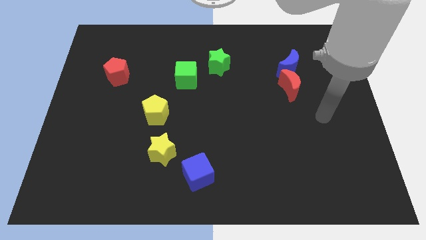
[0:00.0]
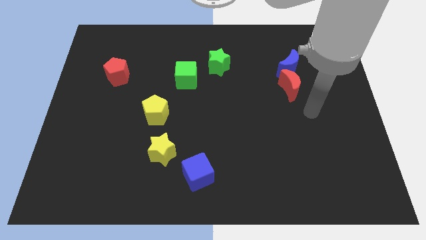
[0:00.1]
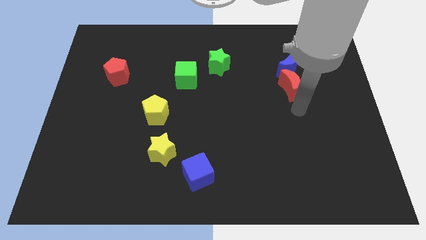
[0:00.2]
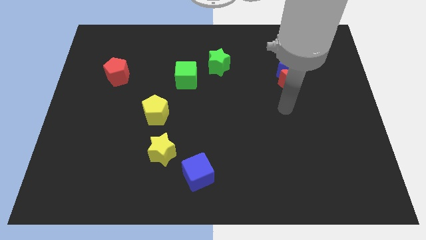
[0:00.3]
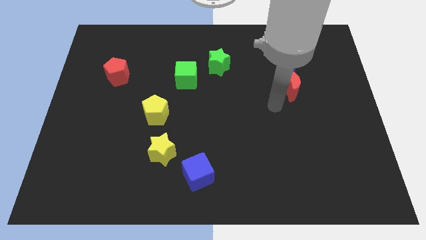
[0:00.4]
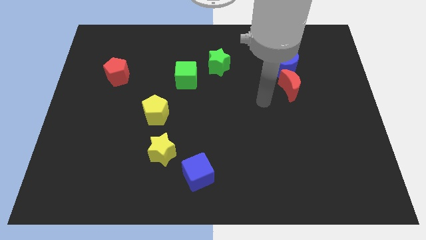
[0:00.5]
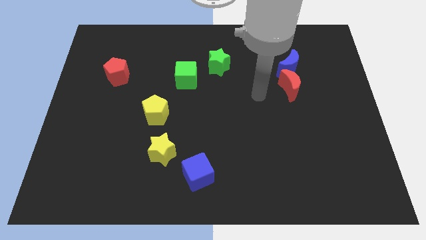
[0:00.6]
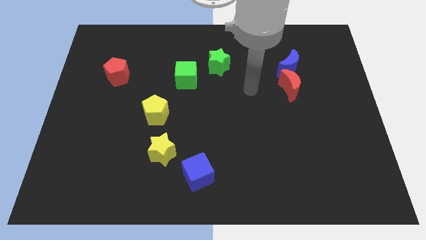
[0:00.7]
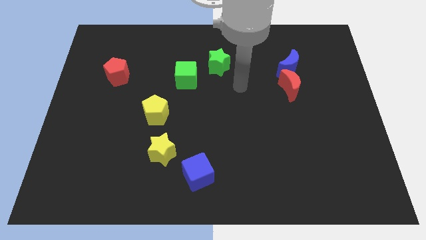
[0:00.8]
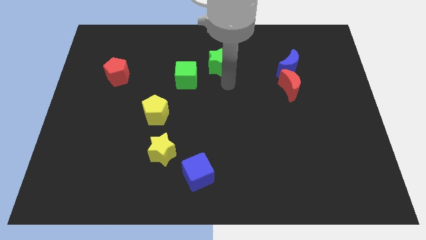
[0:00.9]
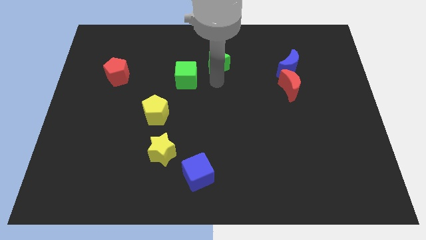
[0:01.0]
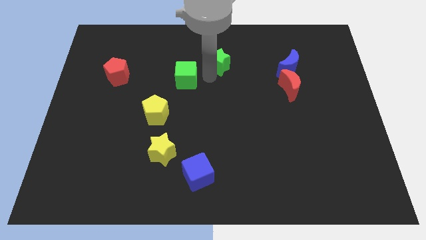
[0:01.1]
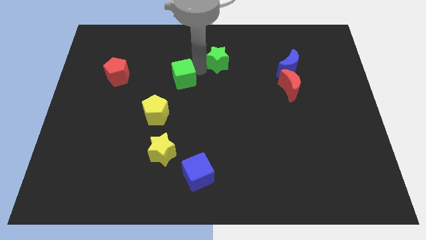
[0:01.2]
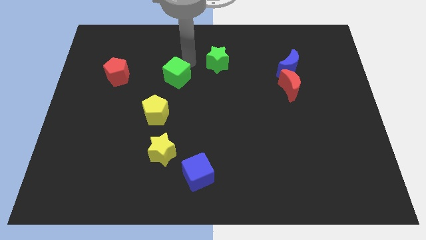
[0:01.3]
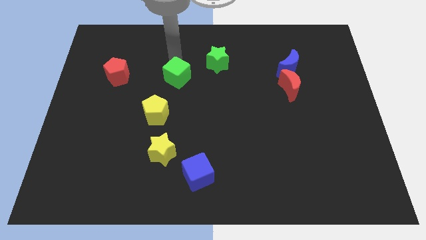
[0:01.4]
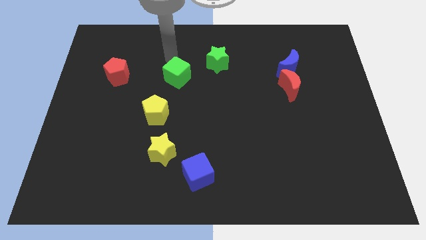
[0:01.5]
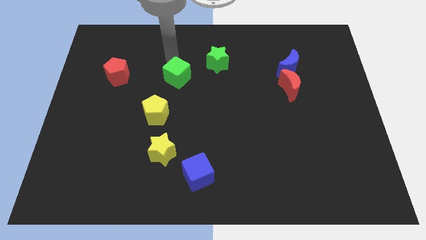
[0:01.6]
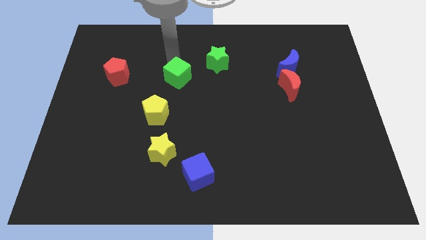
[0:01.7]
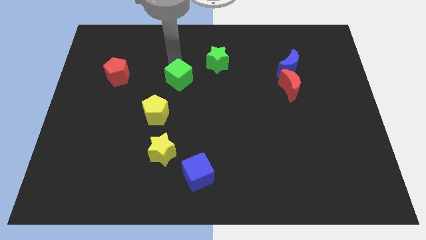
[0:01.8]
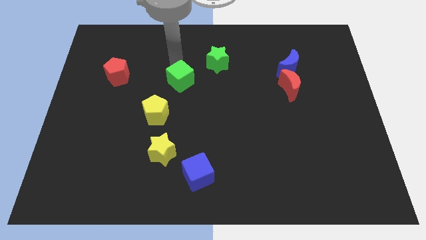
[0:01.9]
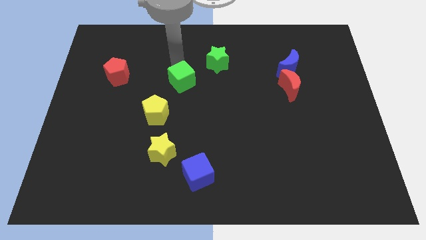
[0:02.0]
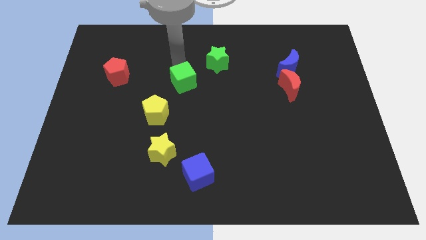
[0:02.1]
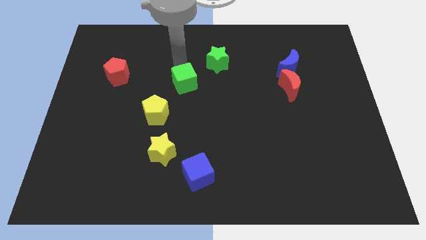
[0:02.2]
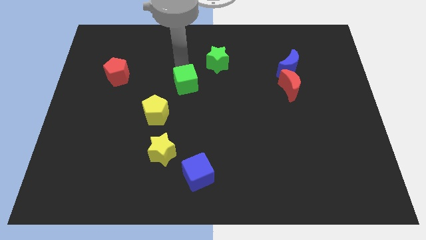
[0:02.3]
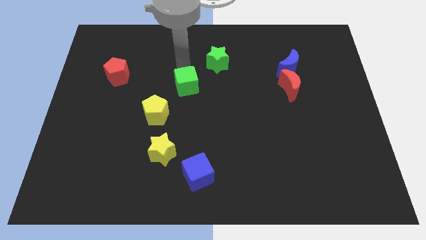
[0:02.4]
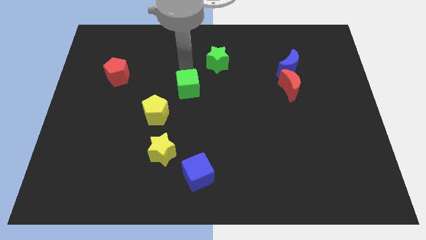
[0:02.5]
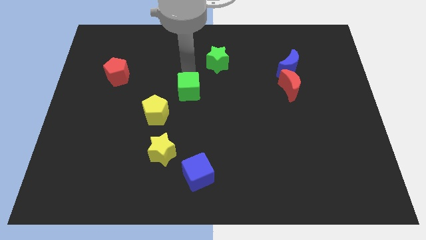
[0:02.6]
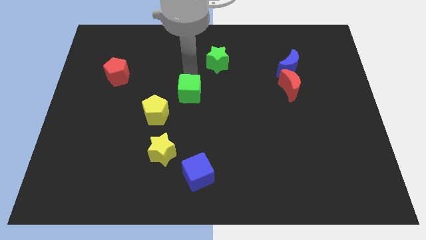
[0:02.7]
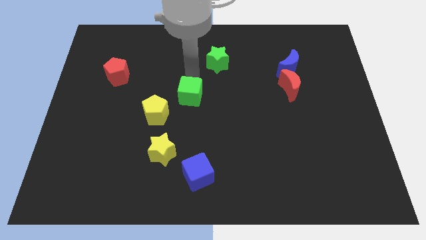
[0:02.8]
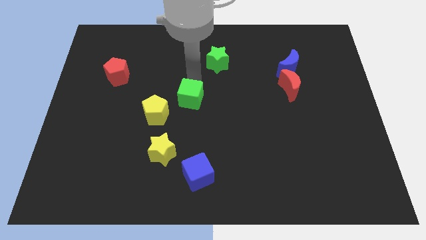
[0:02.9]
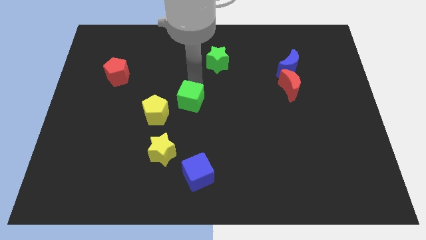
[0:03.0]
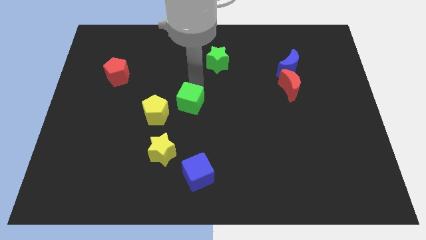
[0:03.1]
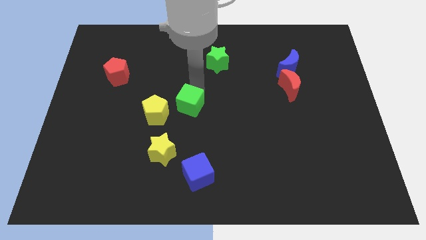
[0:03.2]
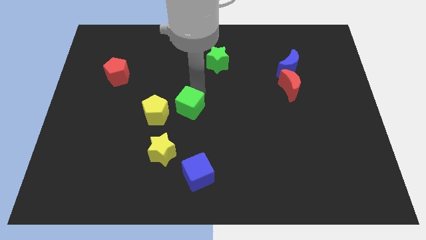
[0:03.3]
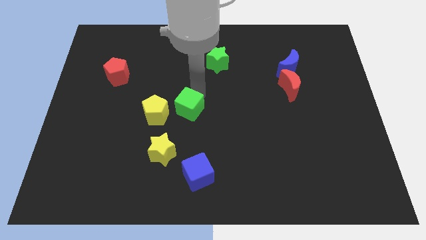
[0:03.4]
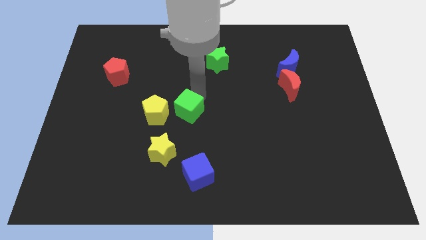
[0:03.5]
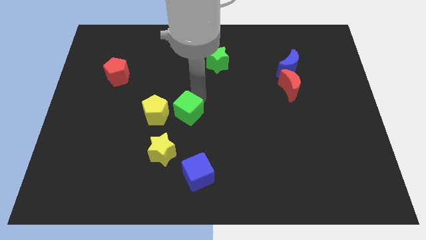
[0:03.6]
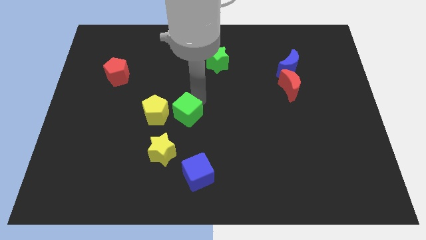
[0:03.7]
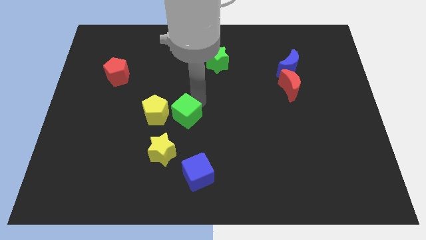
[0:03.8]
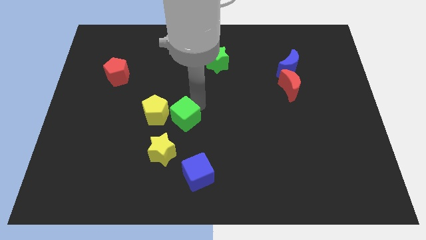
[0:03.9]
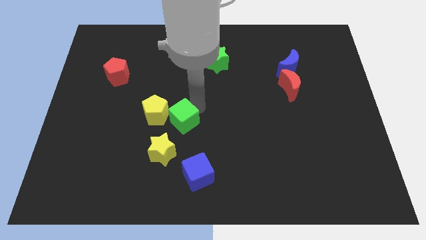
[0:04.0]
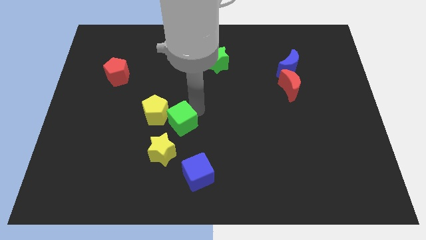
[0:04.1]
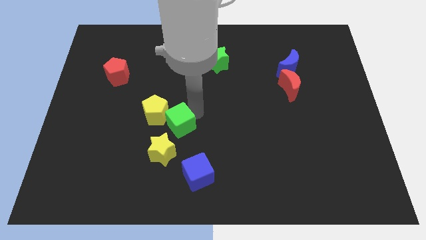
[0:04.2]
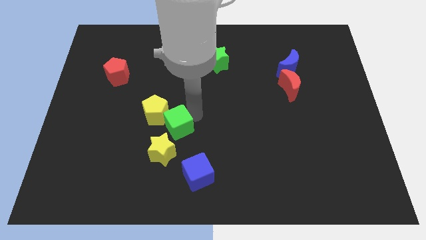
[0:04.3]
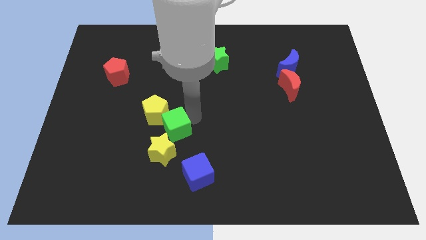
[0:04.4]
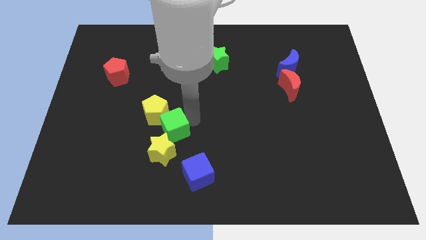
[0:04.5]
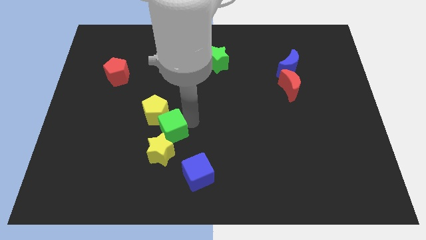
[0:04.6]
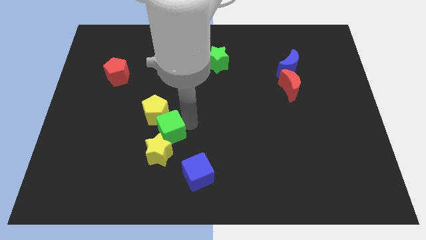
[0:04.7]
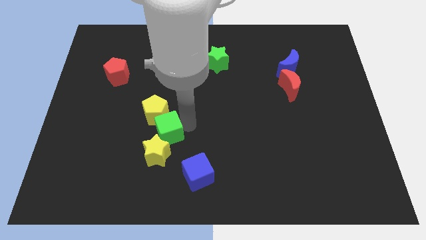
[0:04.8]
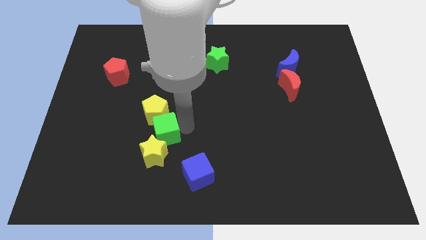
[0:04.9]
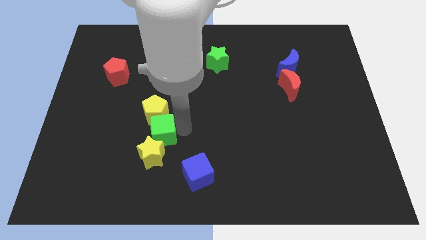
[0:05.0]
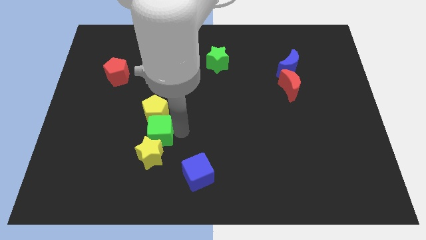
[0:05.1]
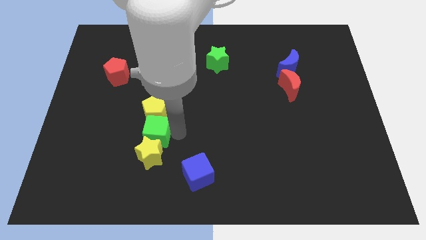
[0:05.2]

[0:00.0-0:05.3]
push the green cube to the top left of the yellow star

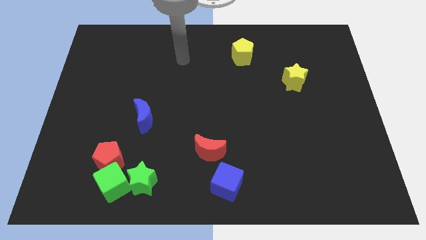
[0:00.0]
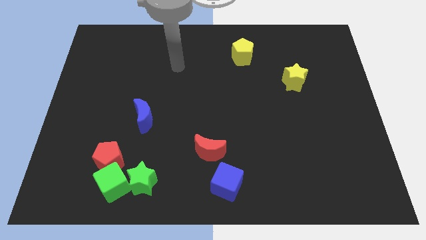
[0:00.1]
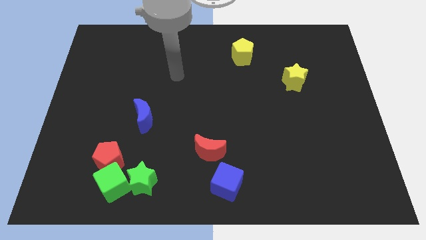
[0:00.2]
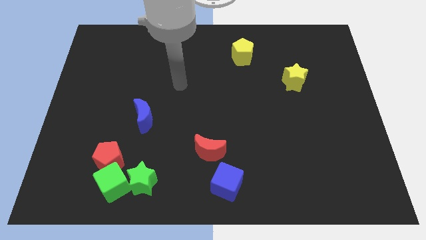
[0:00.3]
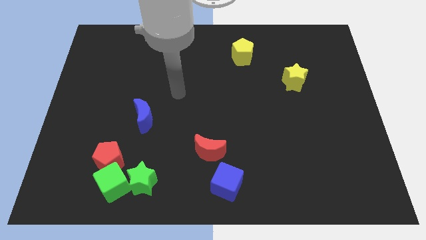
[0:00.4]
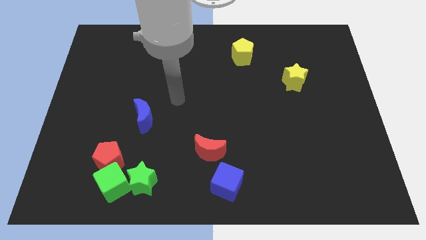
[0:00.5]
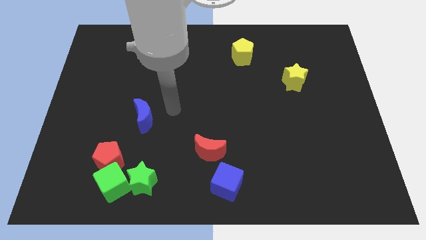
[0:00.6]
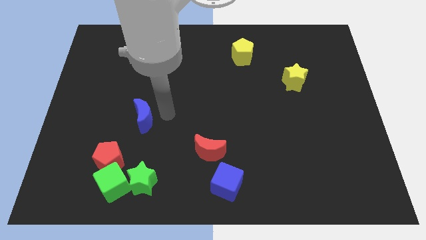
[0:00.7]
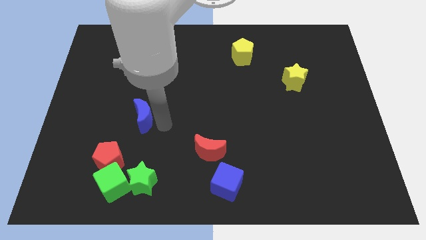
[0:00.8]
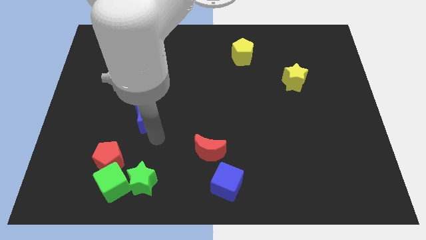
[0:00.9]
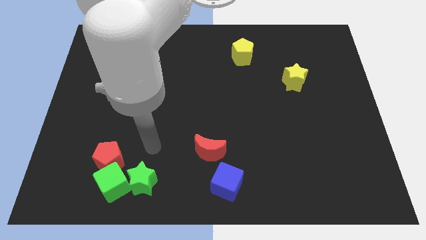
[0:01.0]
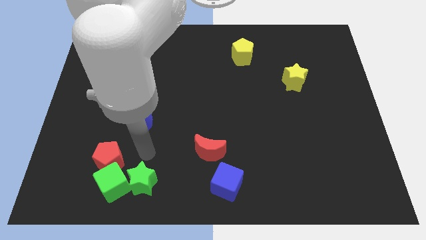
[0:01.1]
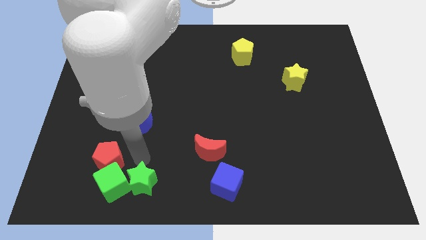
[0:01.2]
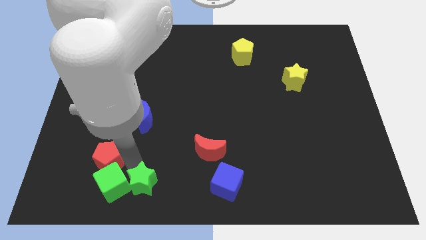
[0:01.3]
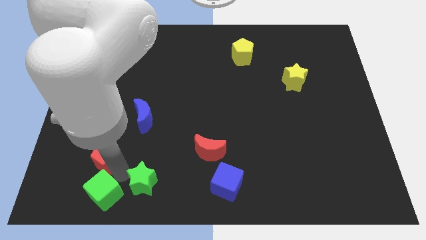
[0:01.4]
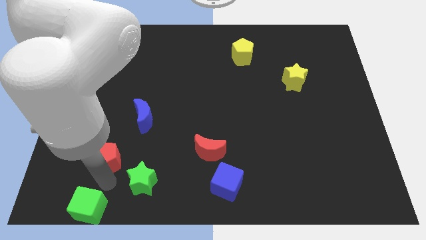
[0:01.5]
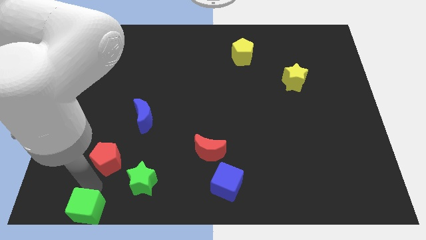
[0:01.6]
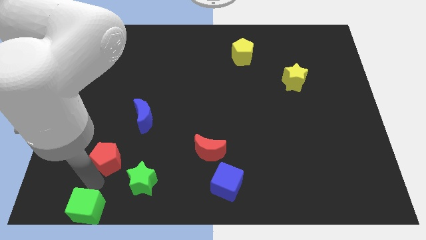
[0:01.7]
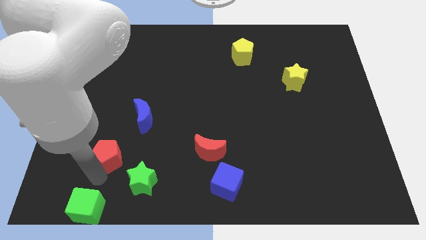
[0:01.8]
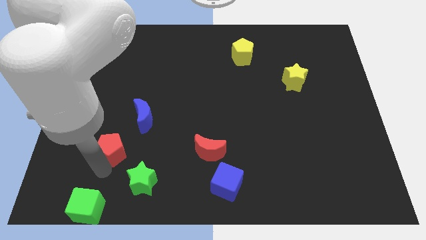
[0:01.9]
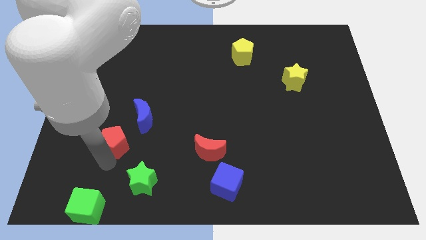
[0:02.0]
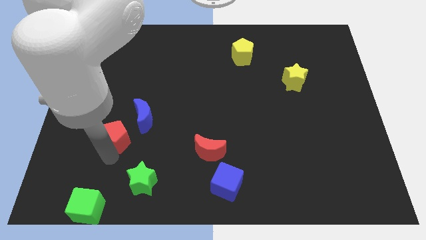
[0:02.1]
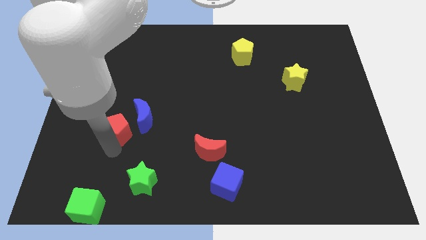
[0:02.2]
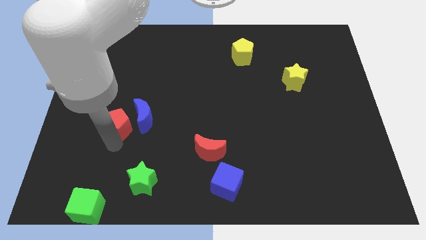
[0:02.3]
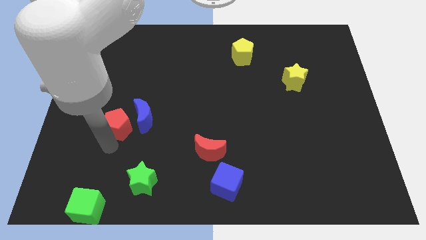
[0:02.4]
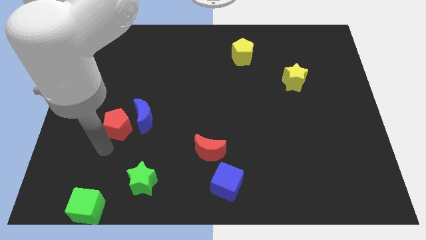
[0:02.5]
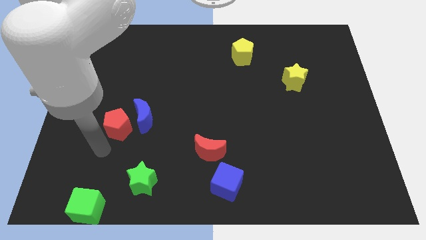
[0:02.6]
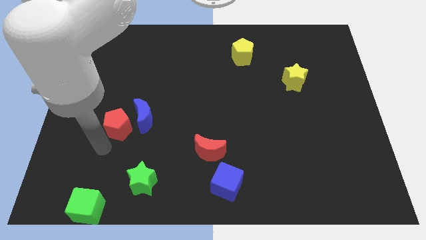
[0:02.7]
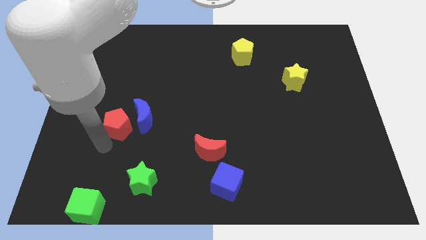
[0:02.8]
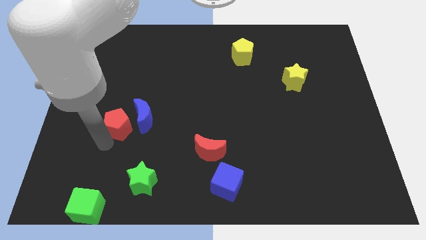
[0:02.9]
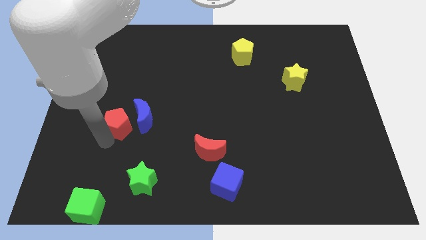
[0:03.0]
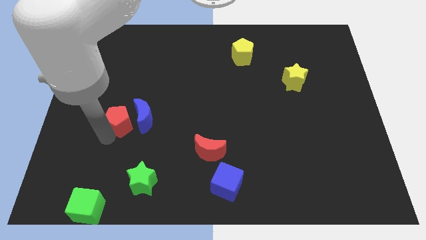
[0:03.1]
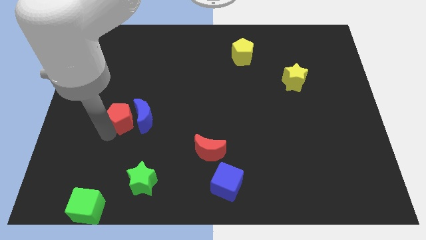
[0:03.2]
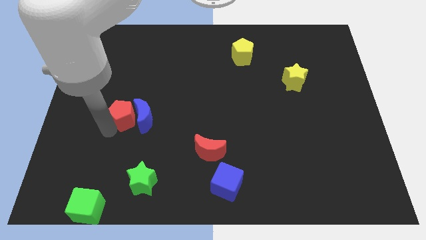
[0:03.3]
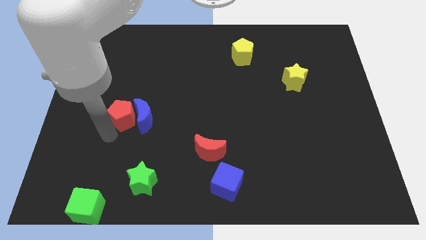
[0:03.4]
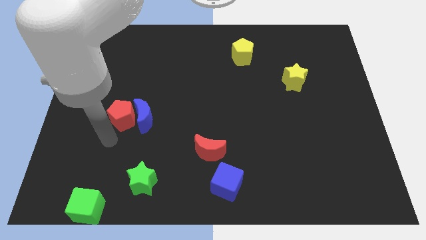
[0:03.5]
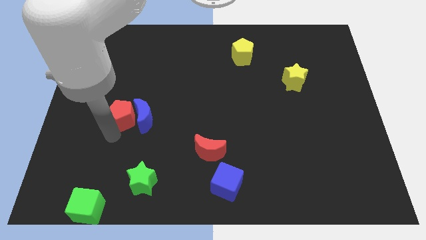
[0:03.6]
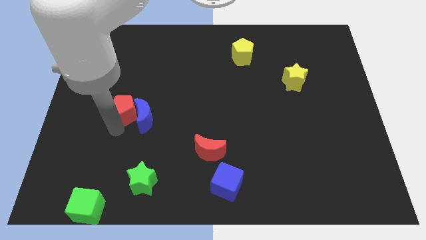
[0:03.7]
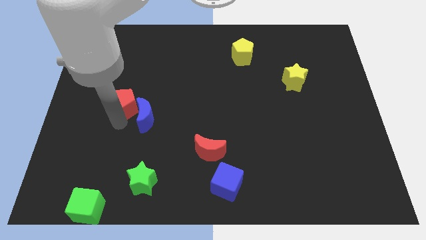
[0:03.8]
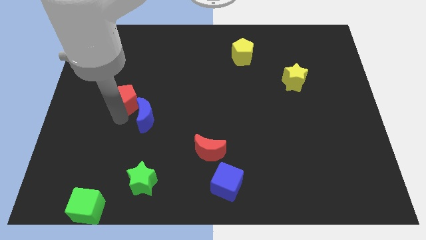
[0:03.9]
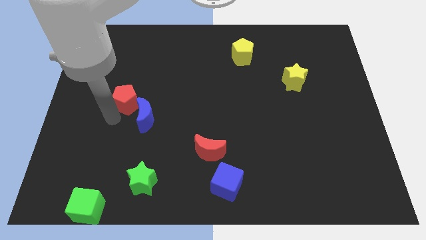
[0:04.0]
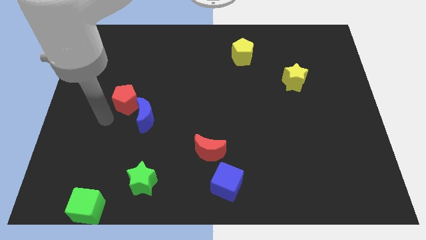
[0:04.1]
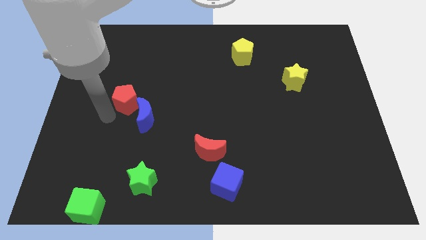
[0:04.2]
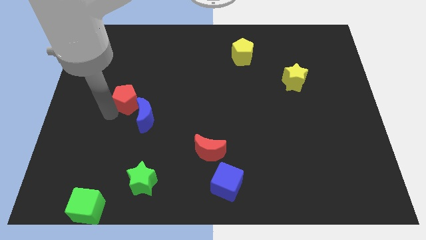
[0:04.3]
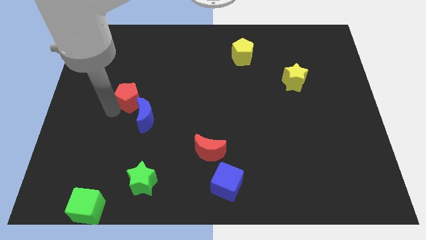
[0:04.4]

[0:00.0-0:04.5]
slide the red pentagon to the top of the blue moon
